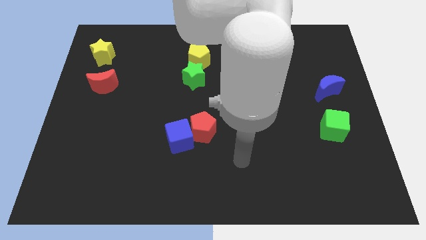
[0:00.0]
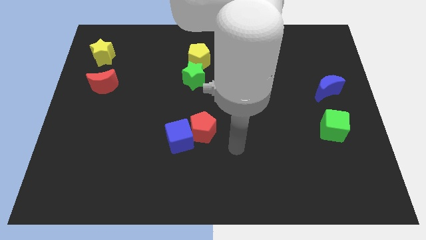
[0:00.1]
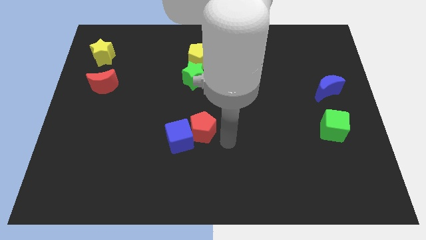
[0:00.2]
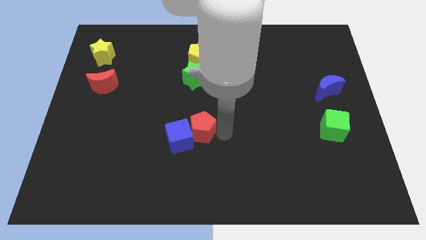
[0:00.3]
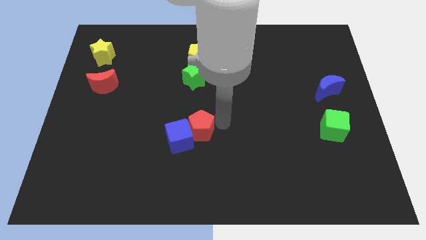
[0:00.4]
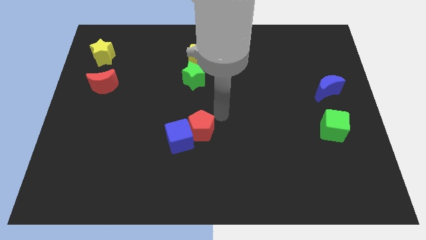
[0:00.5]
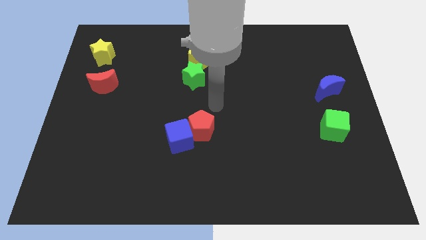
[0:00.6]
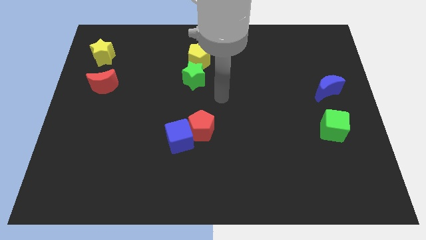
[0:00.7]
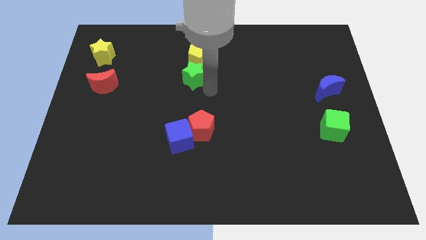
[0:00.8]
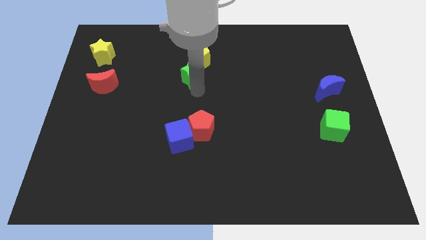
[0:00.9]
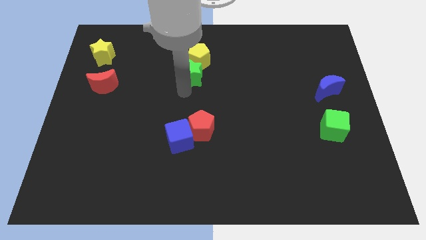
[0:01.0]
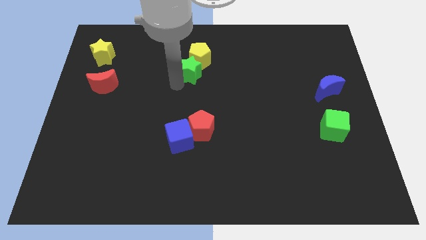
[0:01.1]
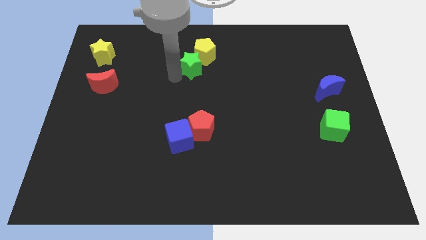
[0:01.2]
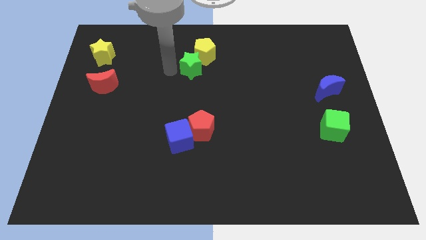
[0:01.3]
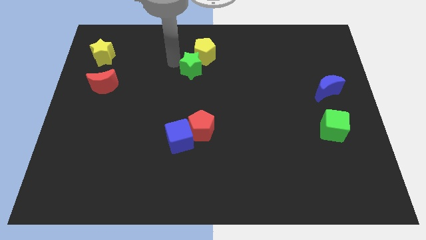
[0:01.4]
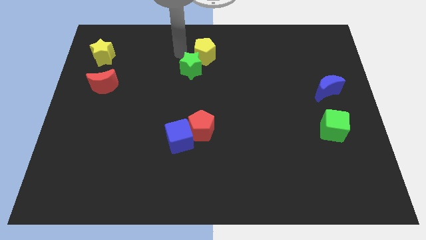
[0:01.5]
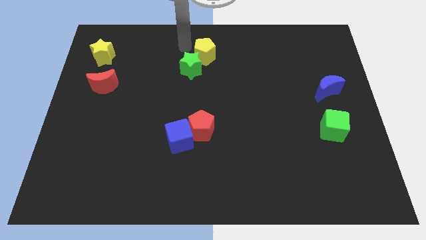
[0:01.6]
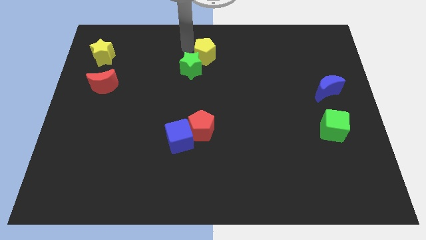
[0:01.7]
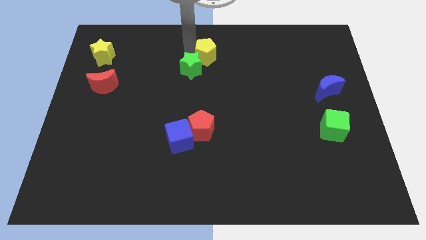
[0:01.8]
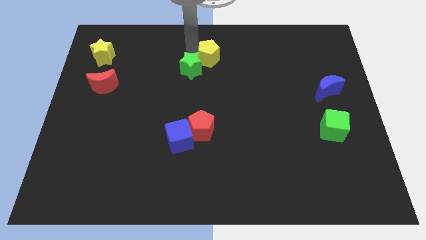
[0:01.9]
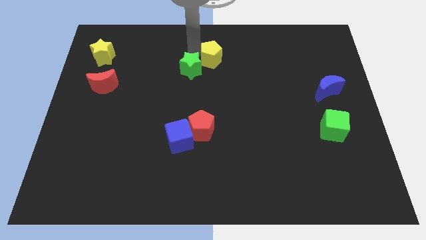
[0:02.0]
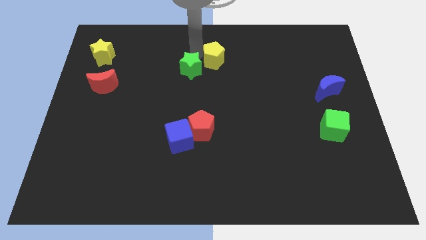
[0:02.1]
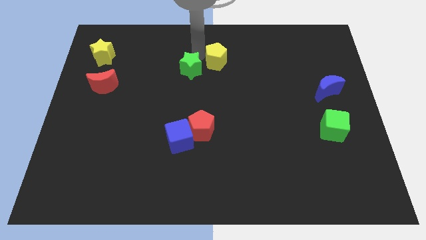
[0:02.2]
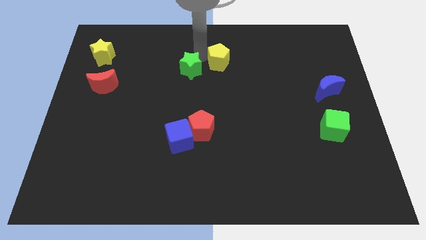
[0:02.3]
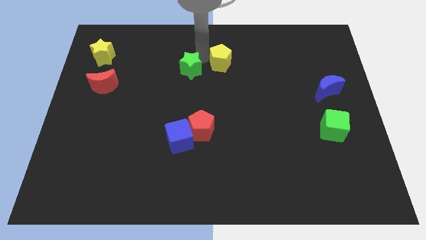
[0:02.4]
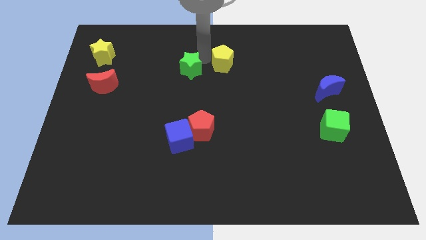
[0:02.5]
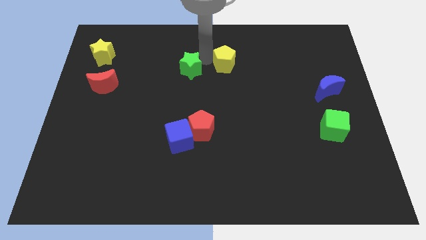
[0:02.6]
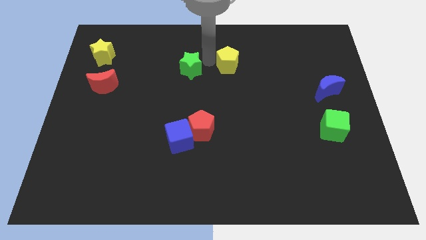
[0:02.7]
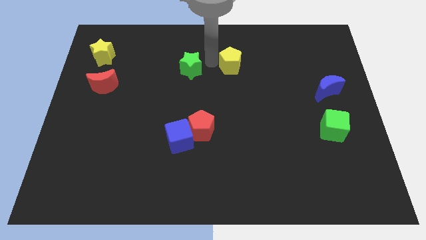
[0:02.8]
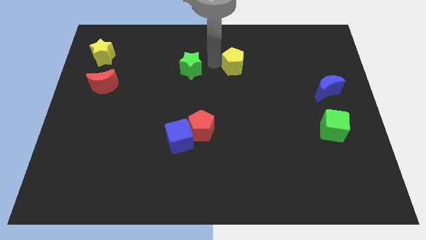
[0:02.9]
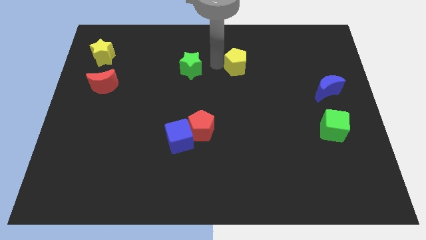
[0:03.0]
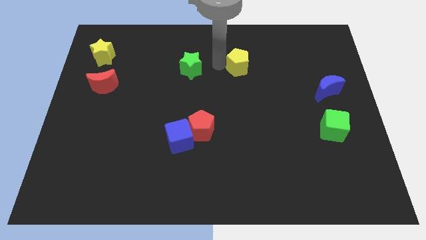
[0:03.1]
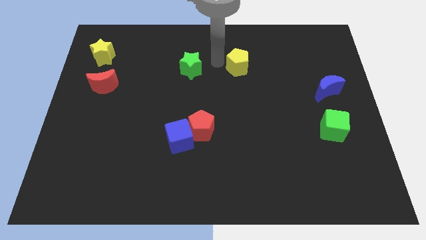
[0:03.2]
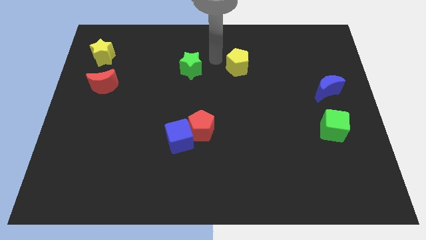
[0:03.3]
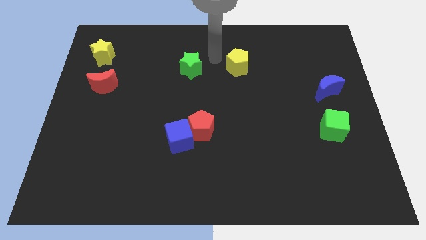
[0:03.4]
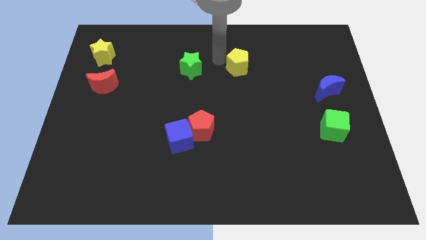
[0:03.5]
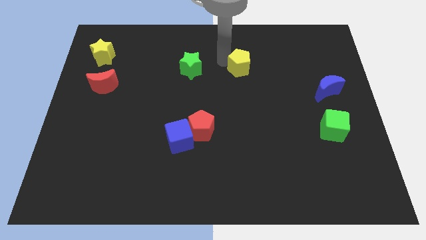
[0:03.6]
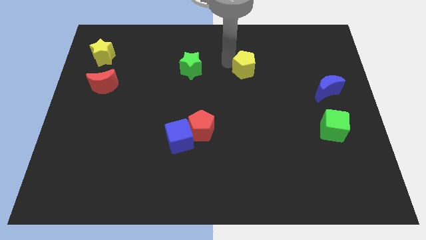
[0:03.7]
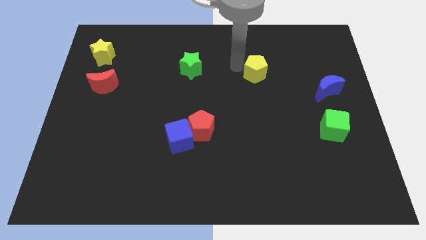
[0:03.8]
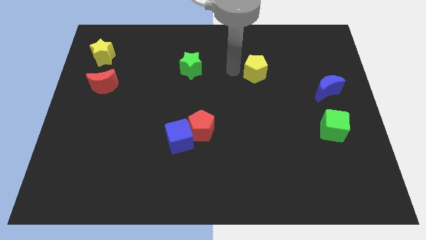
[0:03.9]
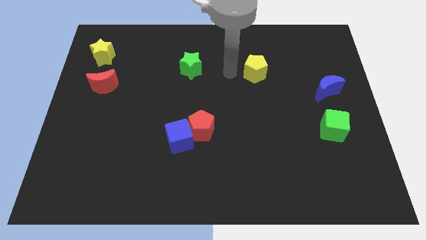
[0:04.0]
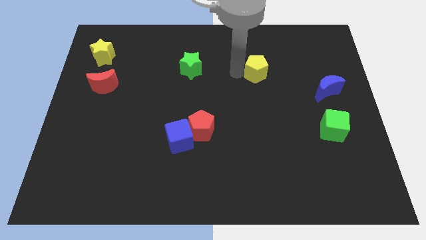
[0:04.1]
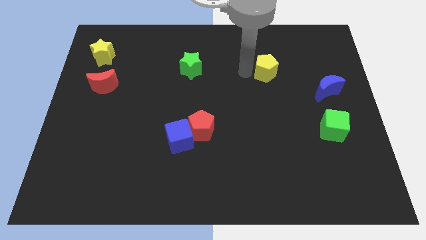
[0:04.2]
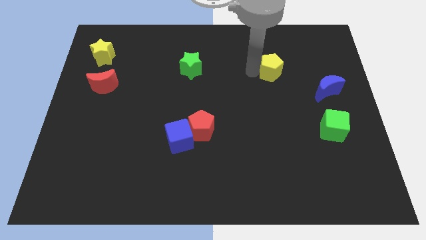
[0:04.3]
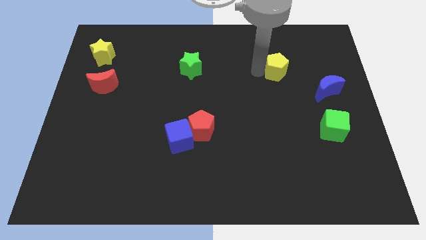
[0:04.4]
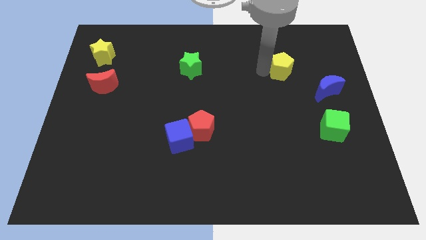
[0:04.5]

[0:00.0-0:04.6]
slide the yellow pentagon to the right

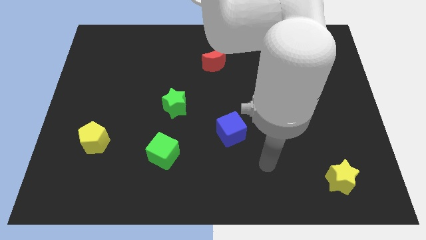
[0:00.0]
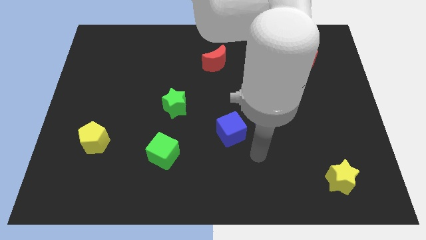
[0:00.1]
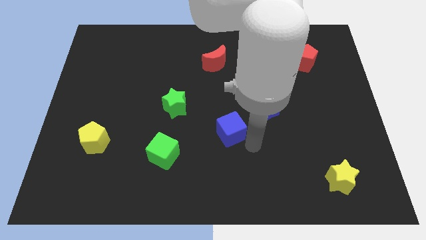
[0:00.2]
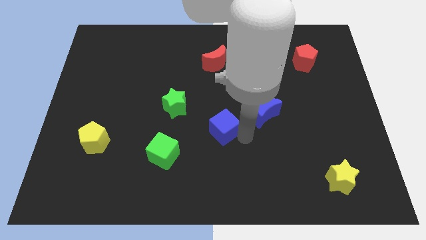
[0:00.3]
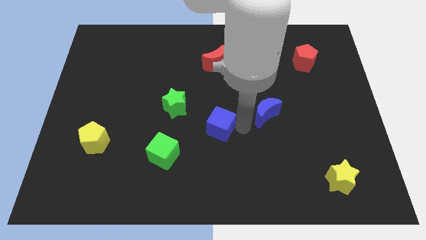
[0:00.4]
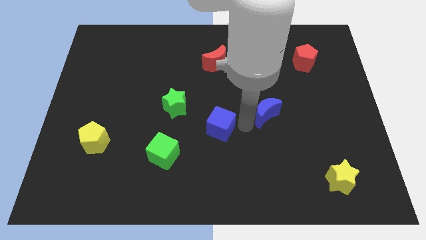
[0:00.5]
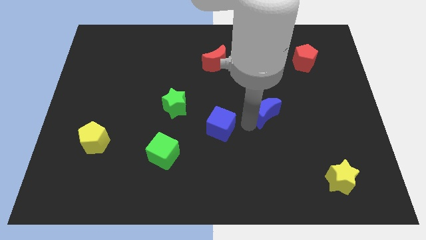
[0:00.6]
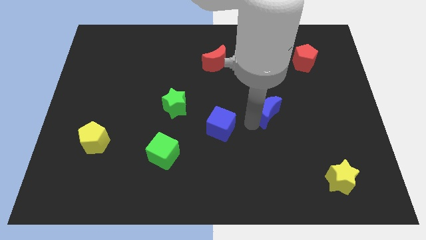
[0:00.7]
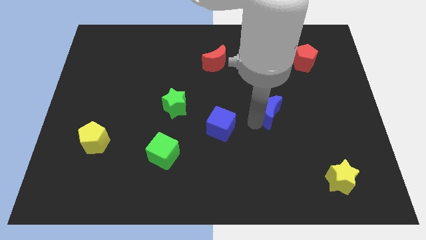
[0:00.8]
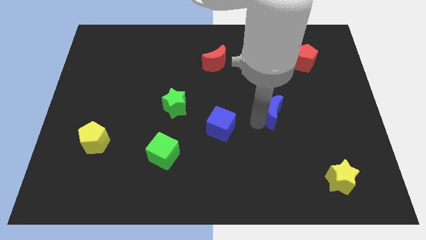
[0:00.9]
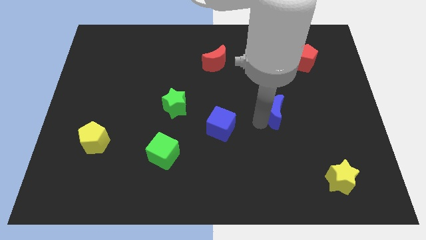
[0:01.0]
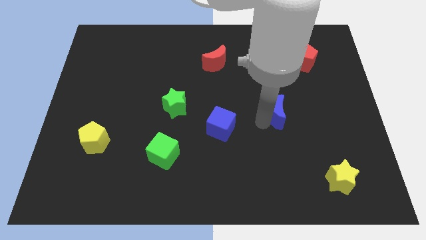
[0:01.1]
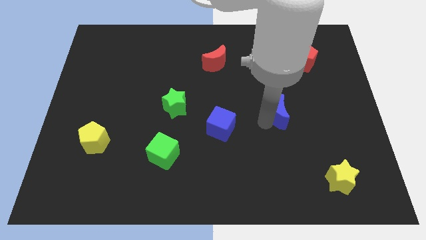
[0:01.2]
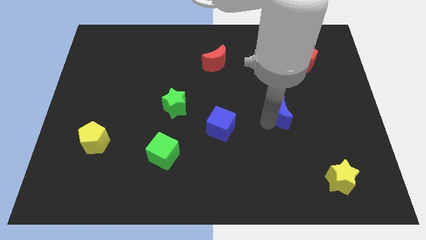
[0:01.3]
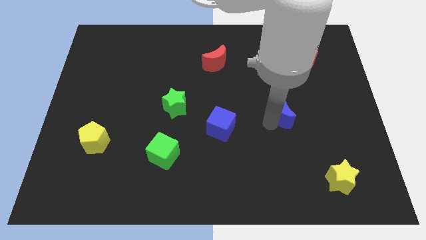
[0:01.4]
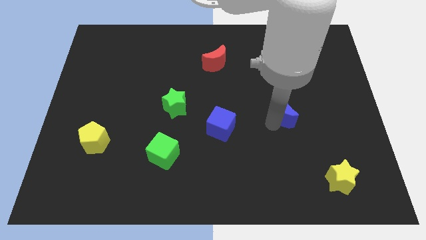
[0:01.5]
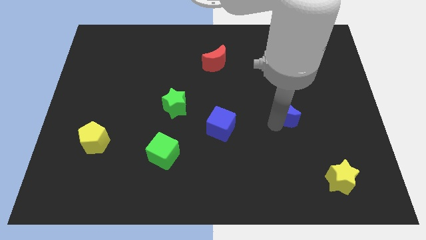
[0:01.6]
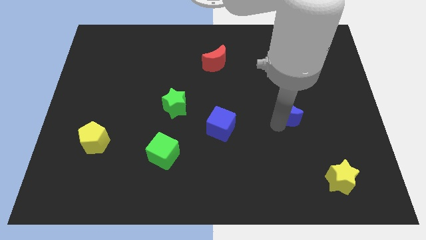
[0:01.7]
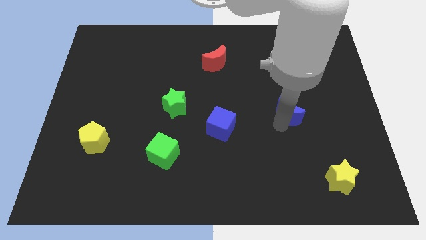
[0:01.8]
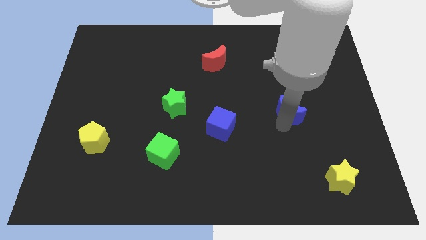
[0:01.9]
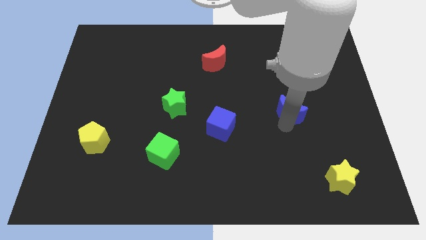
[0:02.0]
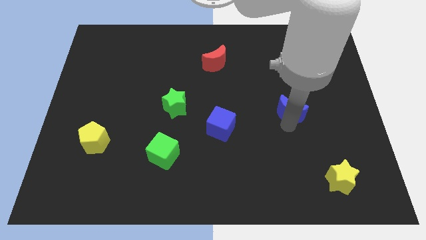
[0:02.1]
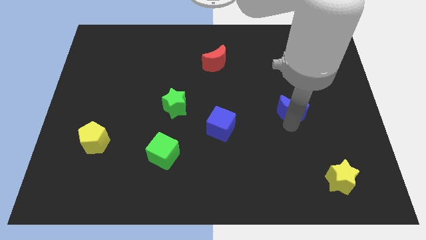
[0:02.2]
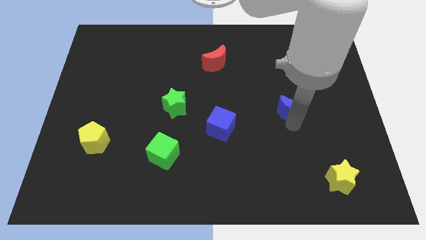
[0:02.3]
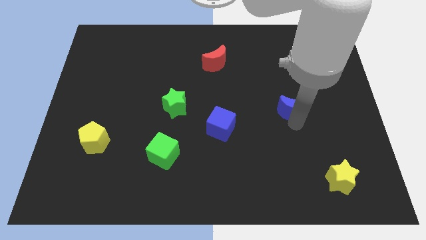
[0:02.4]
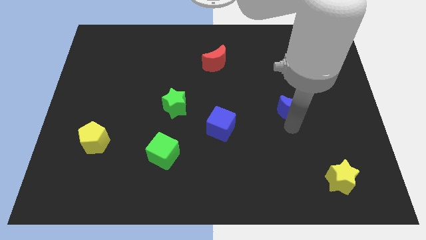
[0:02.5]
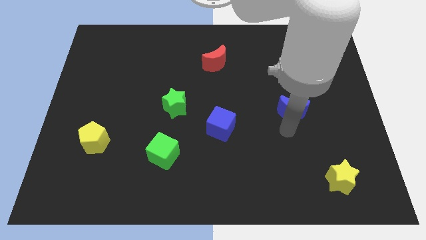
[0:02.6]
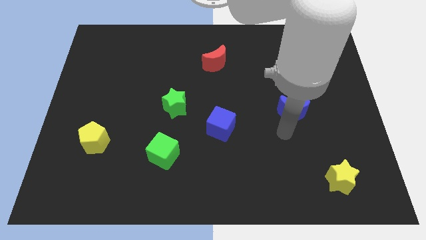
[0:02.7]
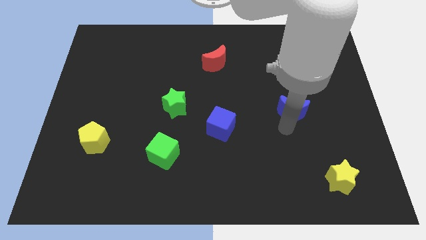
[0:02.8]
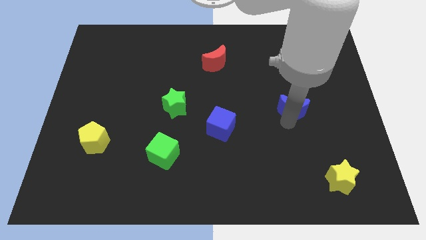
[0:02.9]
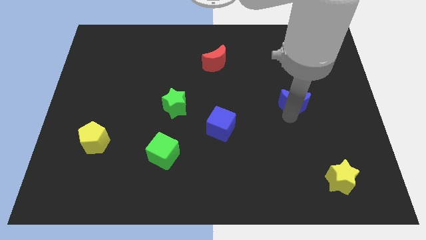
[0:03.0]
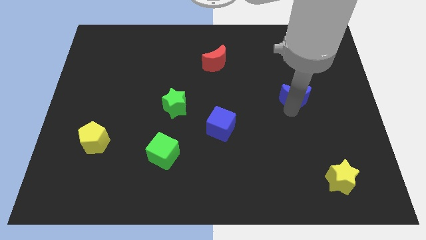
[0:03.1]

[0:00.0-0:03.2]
slightly push the blue moon up and to the right diagonally

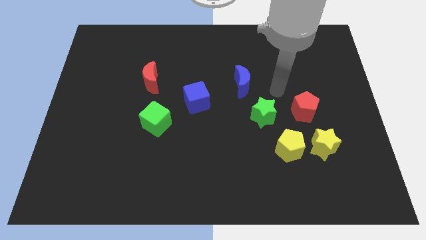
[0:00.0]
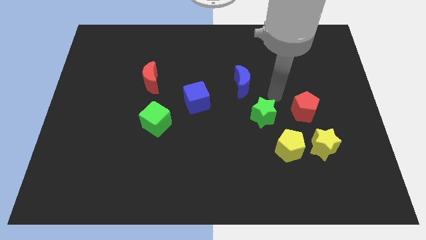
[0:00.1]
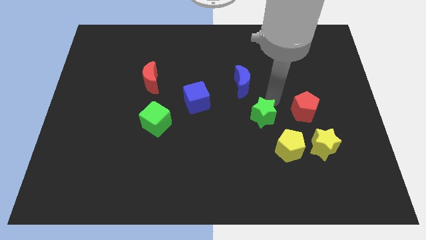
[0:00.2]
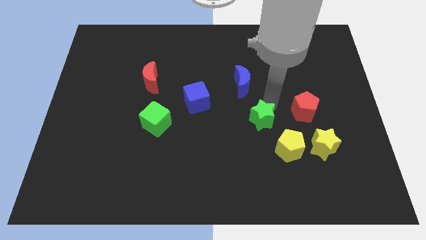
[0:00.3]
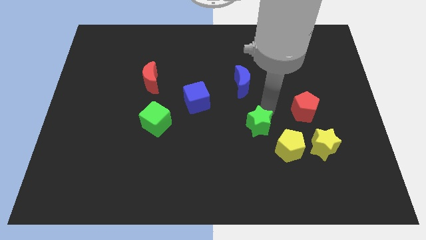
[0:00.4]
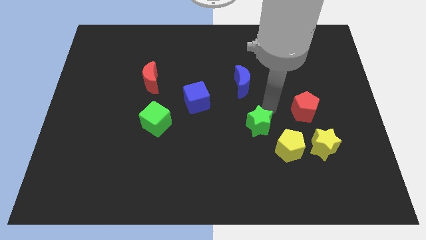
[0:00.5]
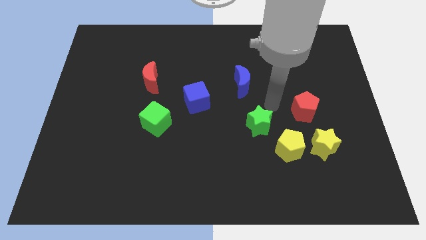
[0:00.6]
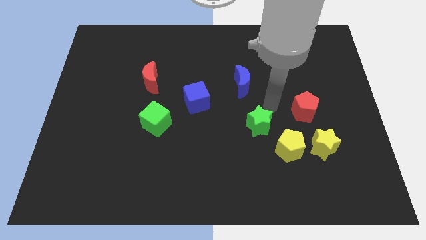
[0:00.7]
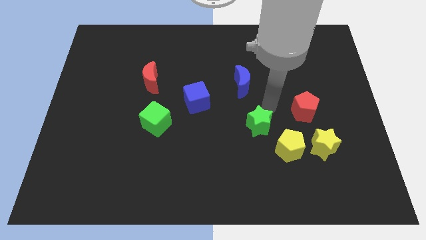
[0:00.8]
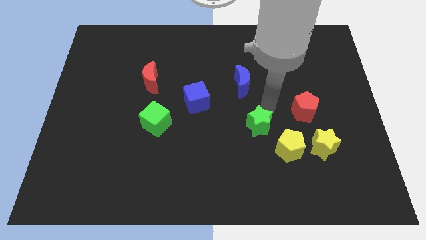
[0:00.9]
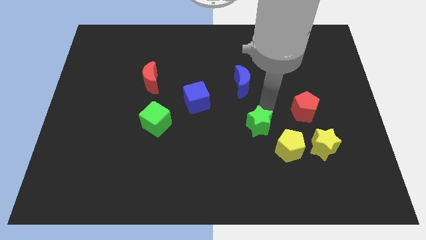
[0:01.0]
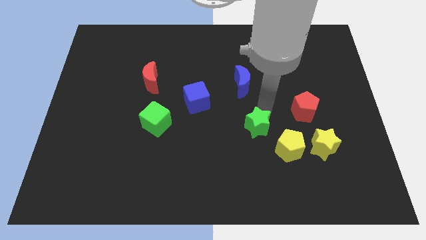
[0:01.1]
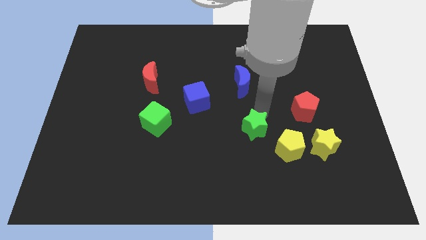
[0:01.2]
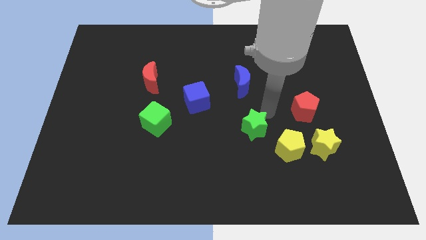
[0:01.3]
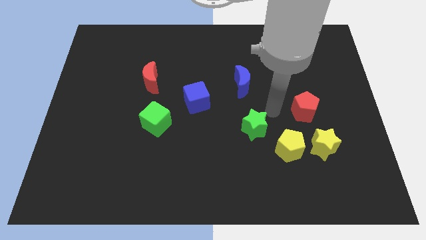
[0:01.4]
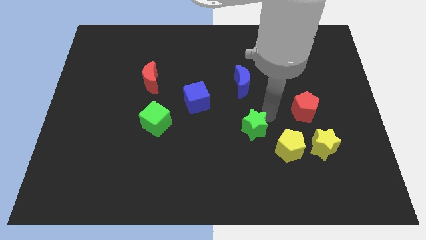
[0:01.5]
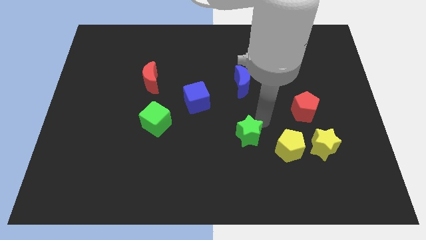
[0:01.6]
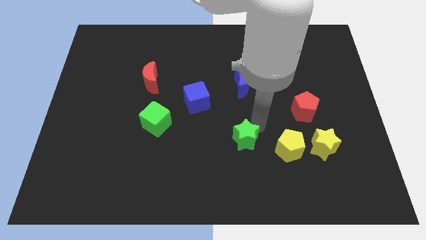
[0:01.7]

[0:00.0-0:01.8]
move the green star a bit downwards and left diagonally
